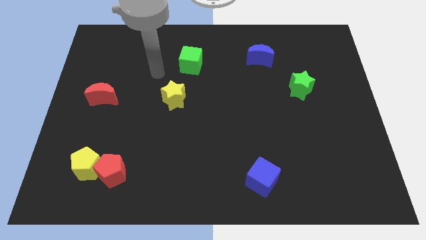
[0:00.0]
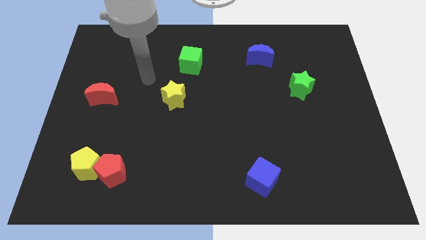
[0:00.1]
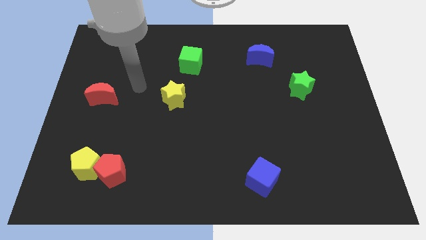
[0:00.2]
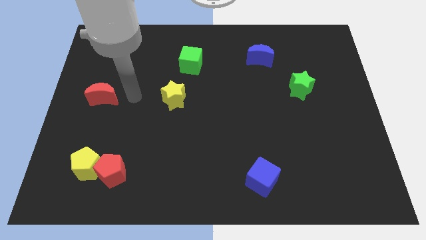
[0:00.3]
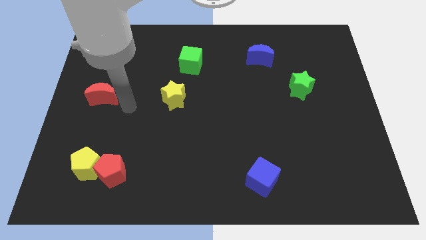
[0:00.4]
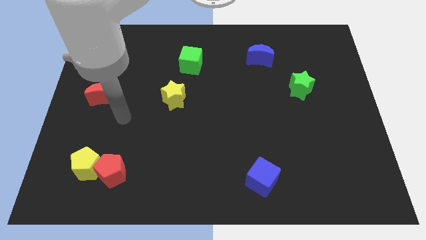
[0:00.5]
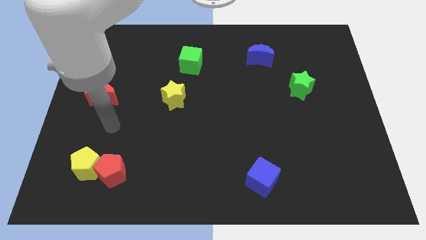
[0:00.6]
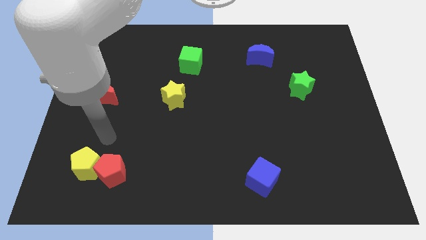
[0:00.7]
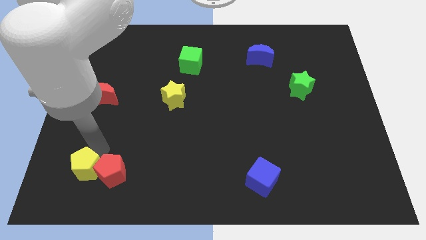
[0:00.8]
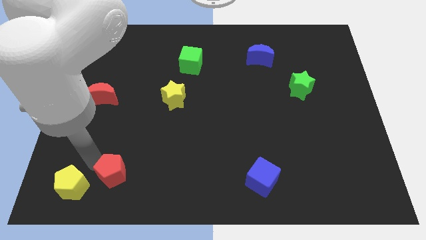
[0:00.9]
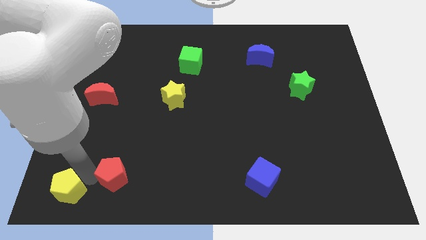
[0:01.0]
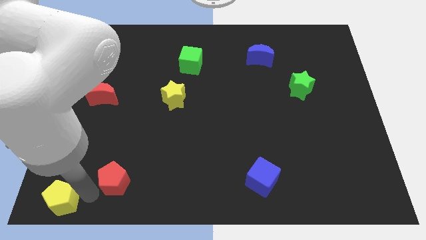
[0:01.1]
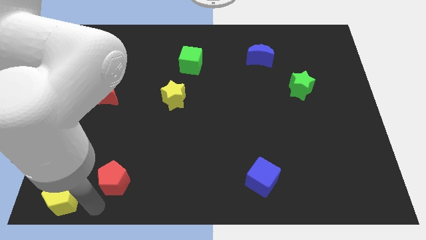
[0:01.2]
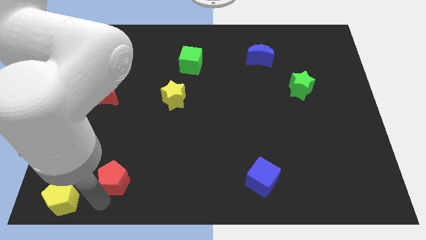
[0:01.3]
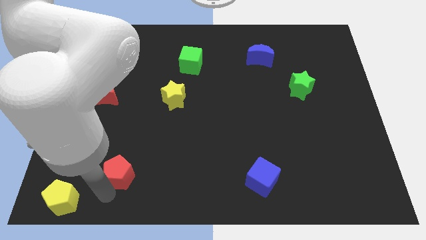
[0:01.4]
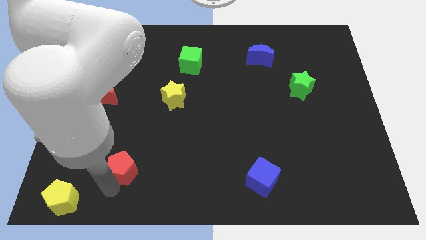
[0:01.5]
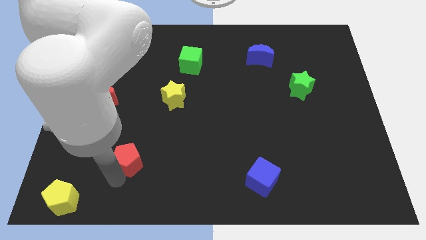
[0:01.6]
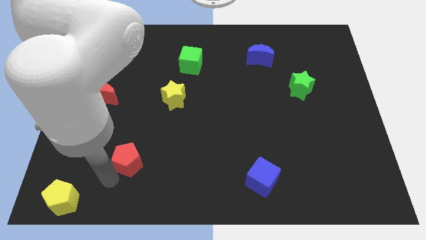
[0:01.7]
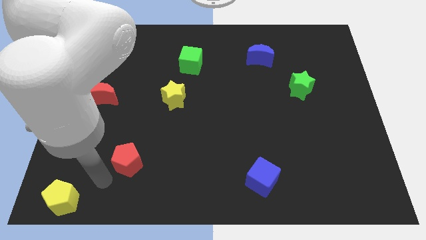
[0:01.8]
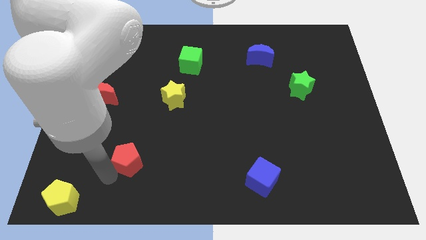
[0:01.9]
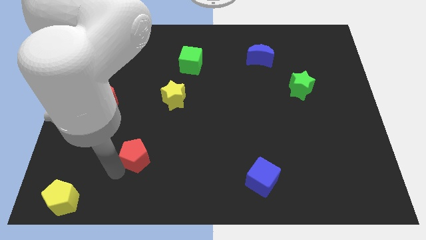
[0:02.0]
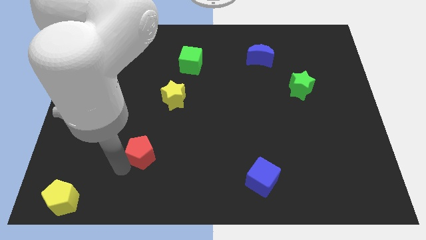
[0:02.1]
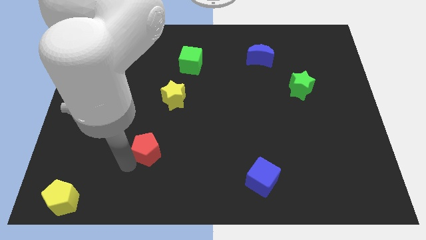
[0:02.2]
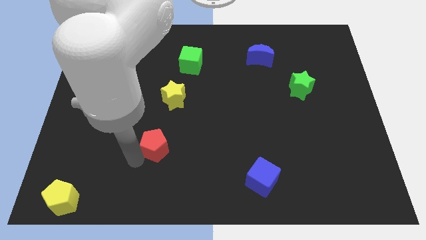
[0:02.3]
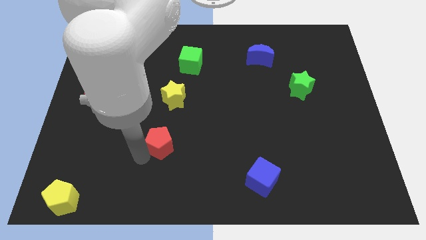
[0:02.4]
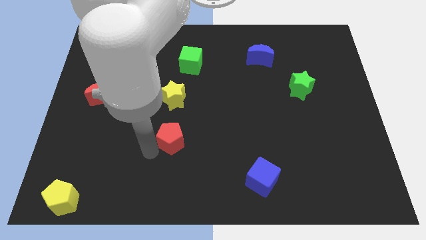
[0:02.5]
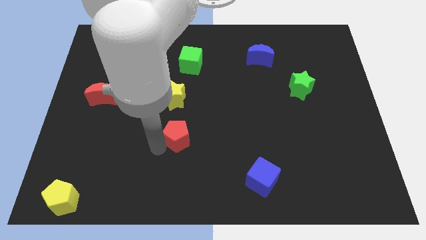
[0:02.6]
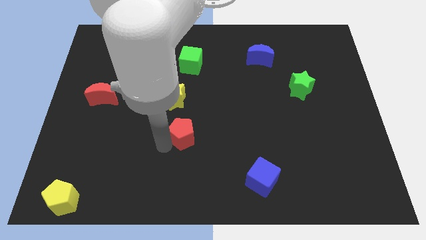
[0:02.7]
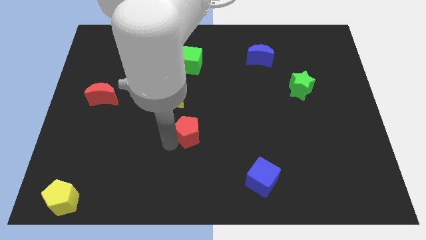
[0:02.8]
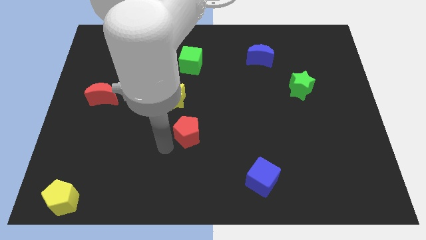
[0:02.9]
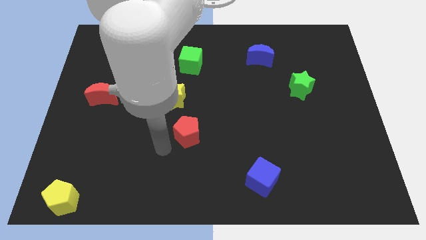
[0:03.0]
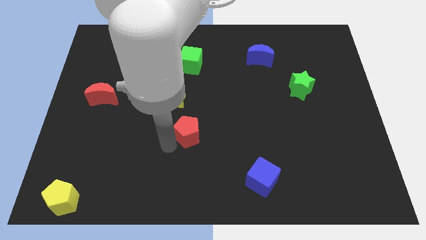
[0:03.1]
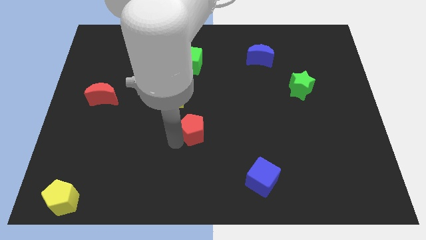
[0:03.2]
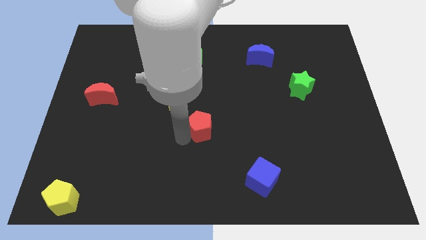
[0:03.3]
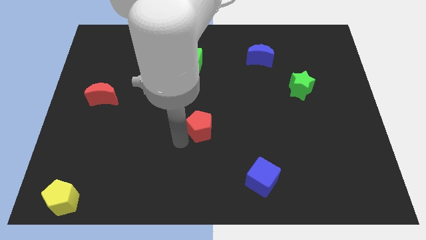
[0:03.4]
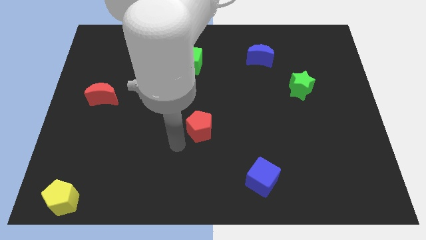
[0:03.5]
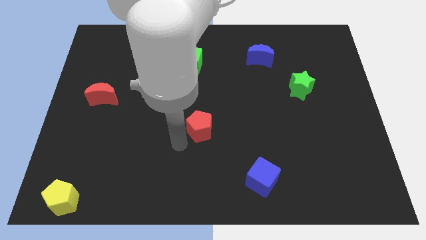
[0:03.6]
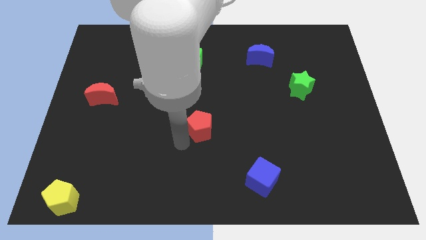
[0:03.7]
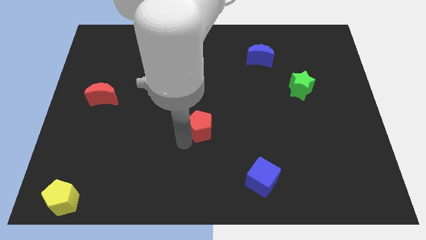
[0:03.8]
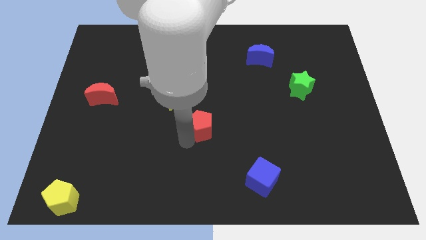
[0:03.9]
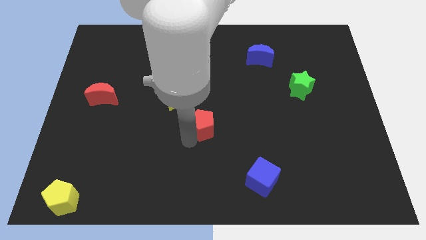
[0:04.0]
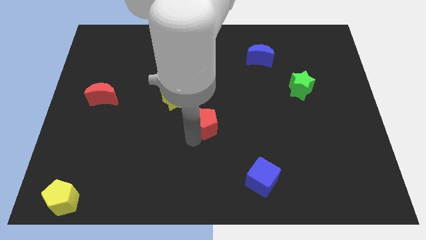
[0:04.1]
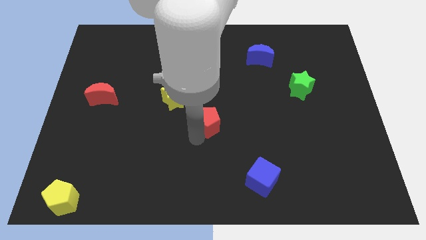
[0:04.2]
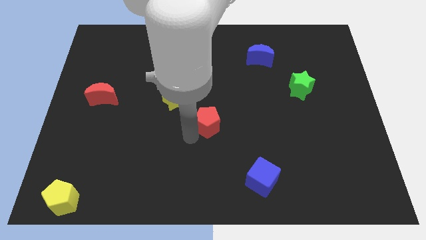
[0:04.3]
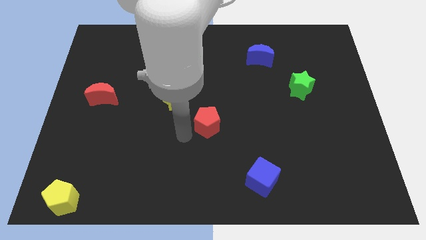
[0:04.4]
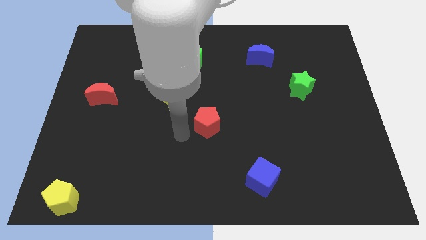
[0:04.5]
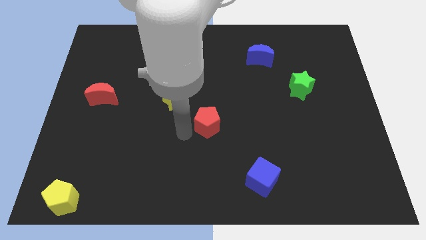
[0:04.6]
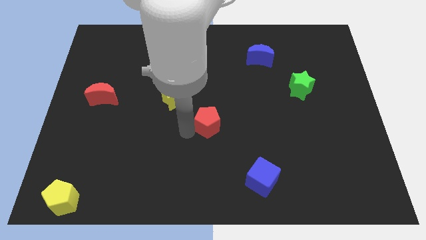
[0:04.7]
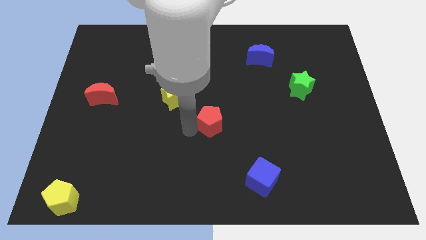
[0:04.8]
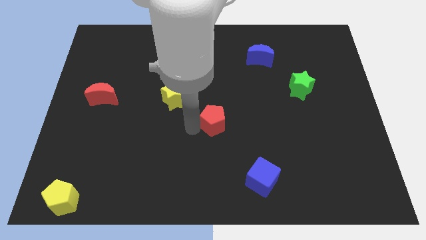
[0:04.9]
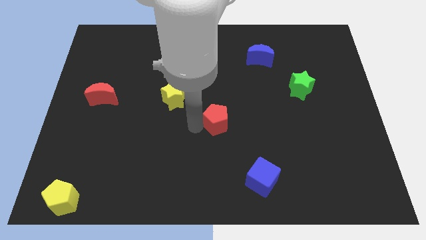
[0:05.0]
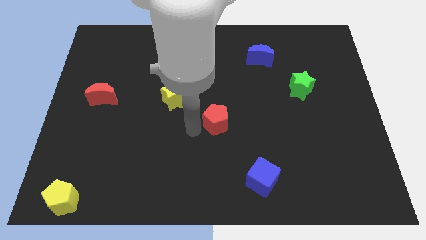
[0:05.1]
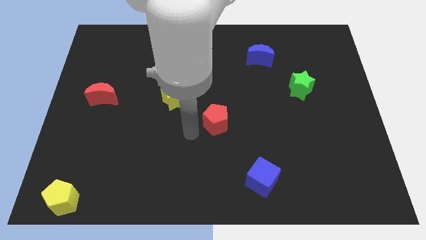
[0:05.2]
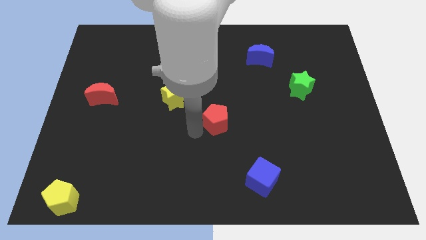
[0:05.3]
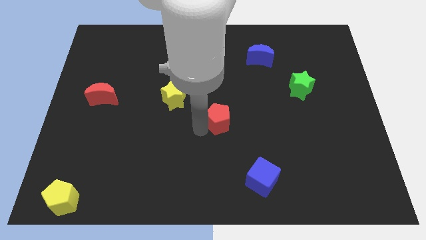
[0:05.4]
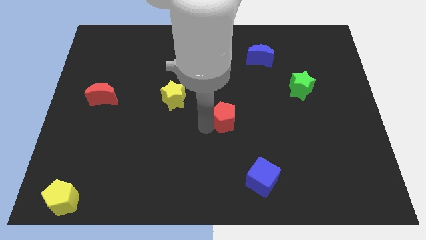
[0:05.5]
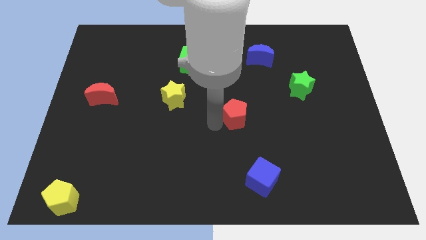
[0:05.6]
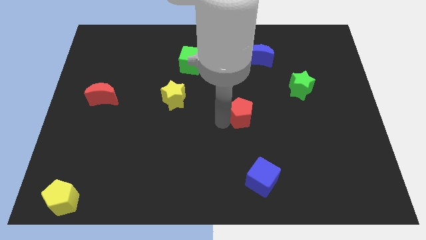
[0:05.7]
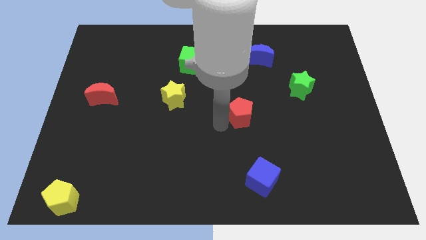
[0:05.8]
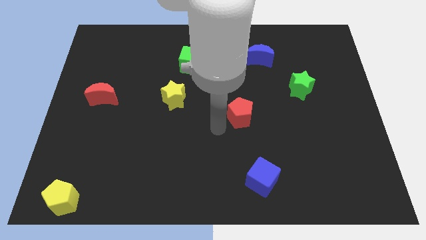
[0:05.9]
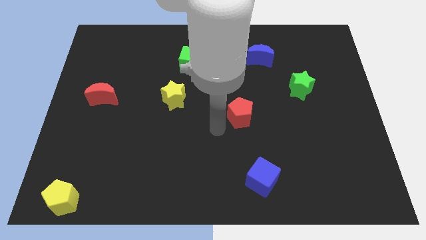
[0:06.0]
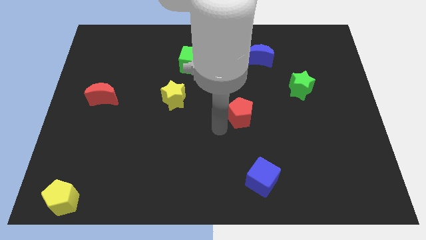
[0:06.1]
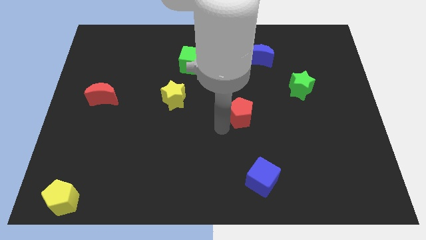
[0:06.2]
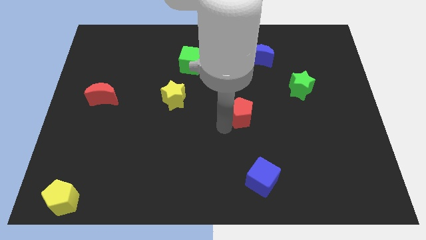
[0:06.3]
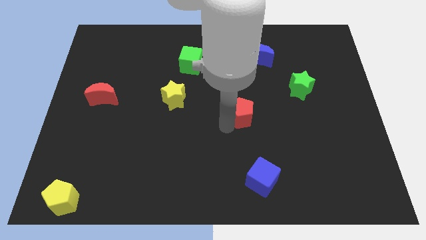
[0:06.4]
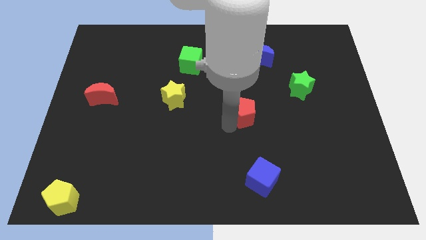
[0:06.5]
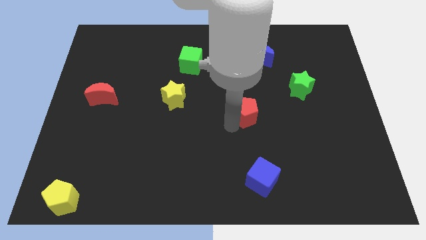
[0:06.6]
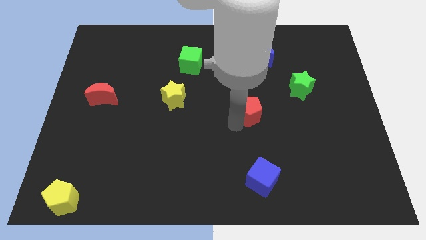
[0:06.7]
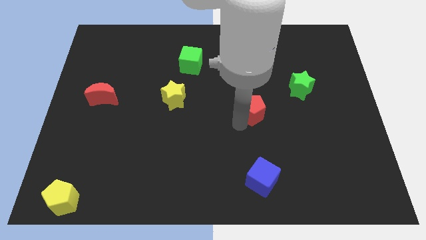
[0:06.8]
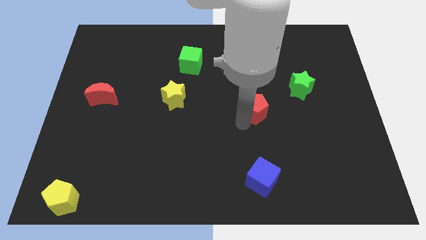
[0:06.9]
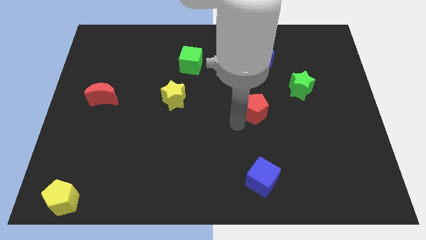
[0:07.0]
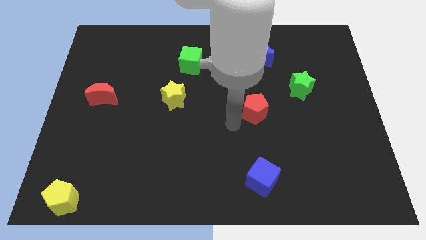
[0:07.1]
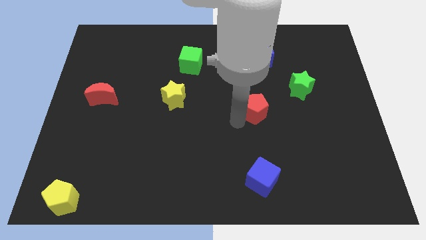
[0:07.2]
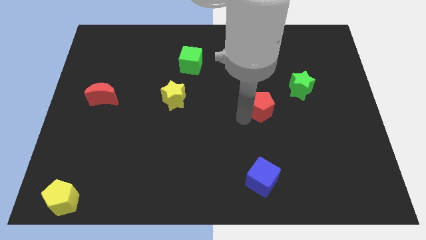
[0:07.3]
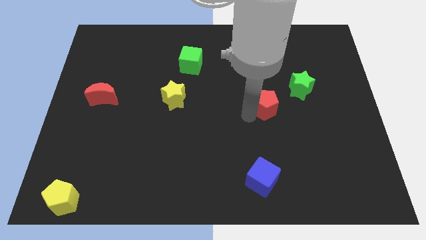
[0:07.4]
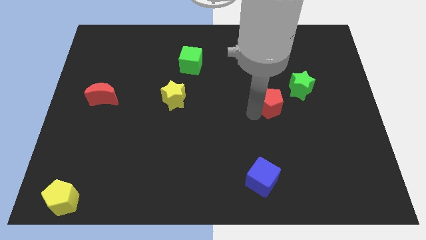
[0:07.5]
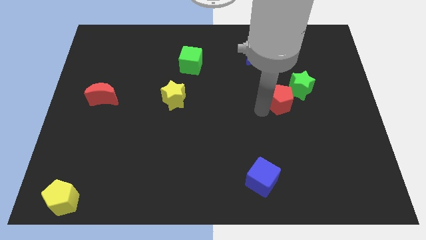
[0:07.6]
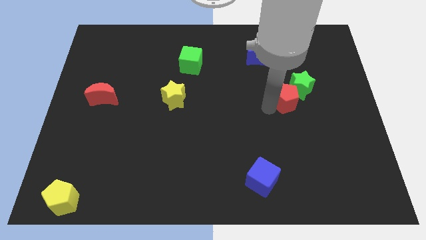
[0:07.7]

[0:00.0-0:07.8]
move the red pentagon towards the green star
